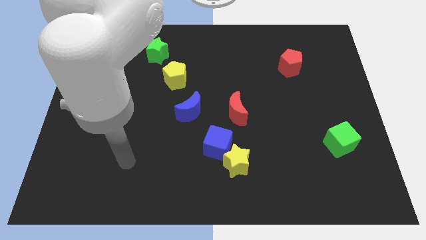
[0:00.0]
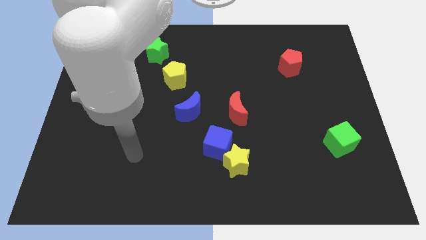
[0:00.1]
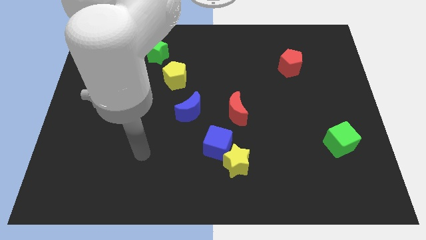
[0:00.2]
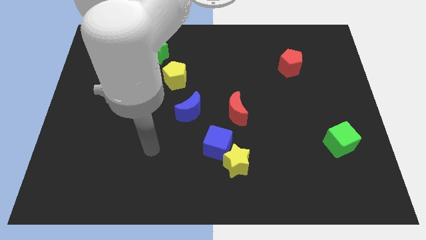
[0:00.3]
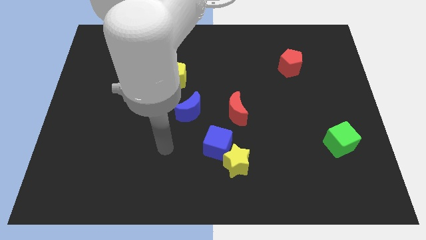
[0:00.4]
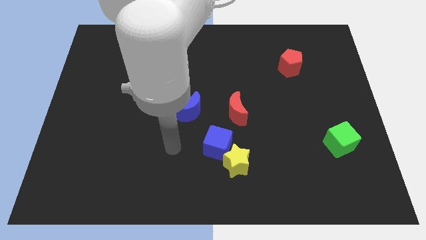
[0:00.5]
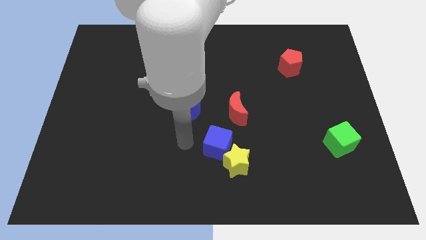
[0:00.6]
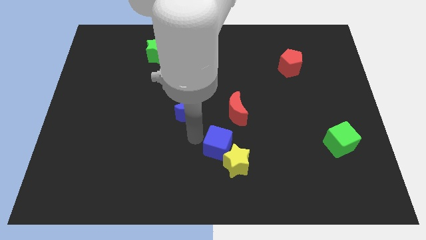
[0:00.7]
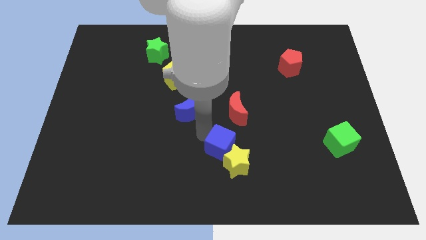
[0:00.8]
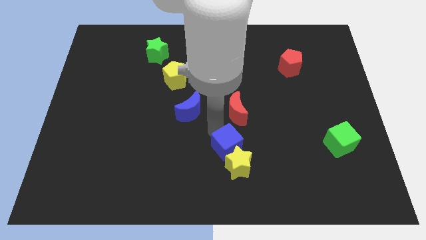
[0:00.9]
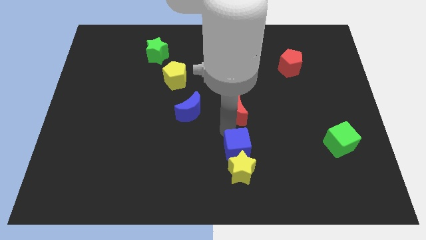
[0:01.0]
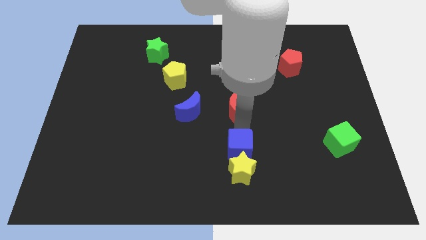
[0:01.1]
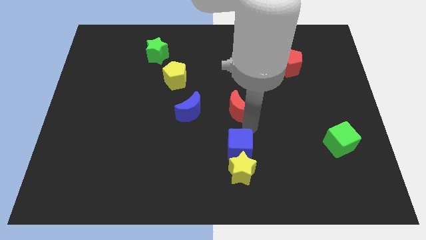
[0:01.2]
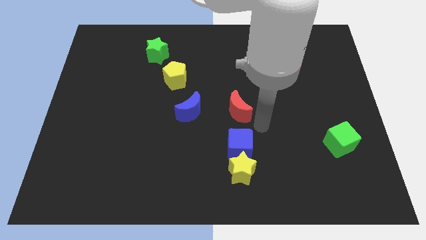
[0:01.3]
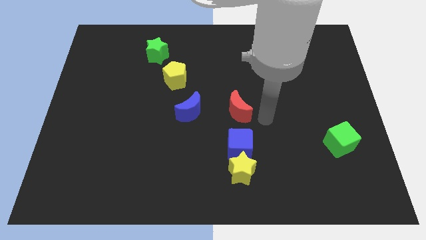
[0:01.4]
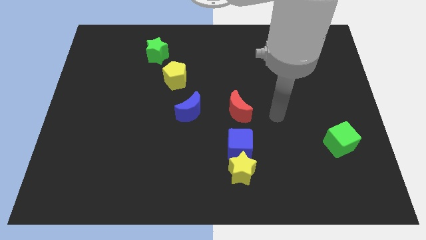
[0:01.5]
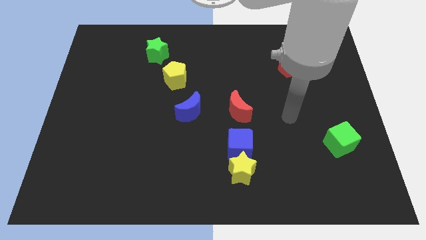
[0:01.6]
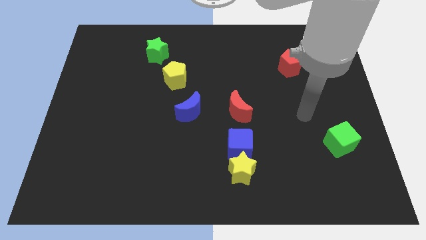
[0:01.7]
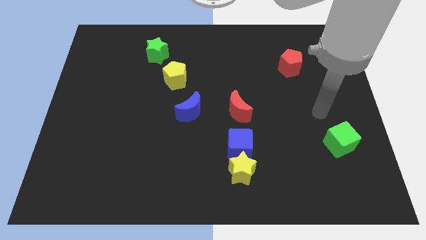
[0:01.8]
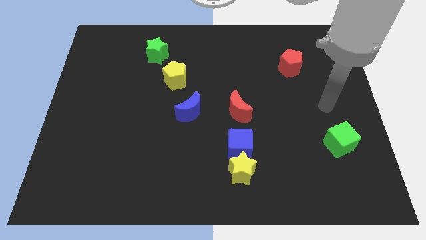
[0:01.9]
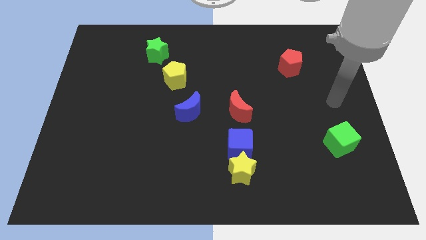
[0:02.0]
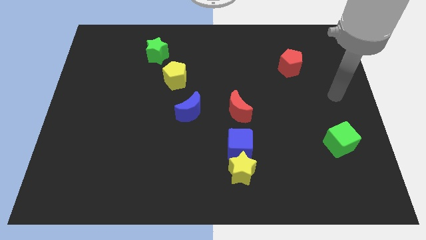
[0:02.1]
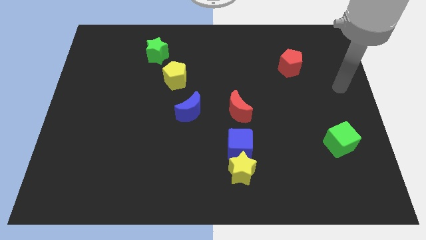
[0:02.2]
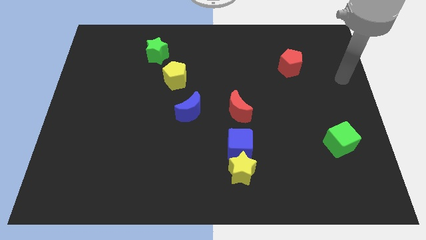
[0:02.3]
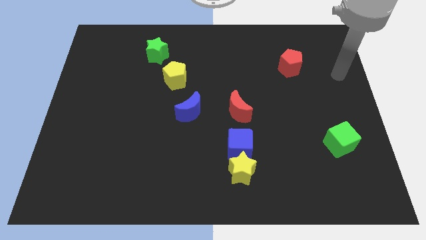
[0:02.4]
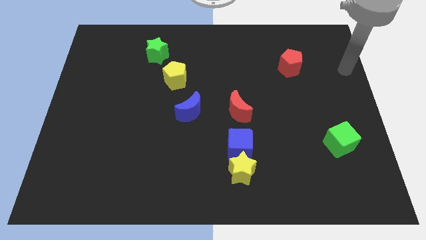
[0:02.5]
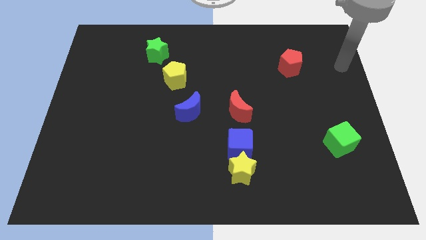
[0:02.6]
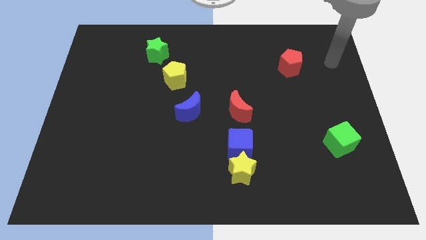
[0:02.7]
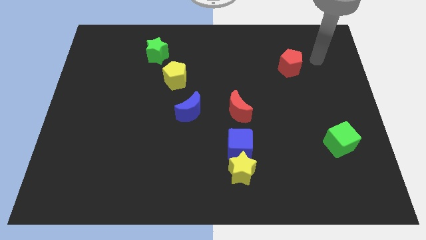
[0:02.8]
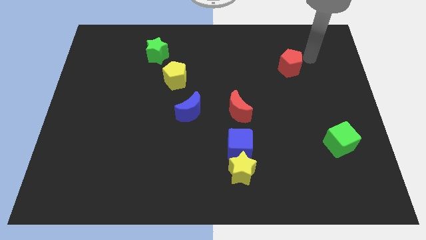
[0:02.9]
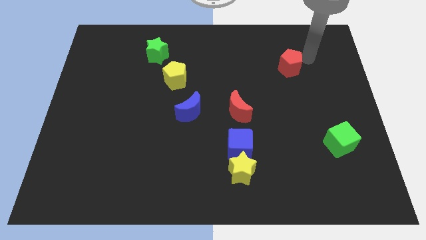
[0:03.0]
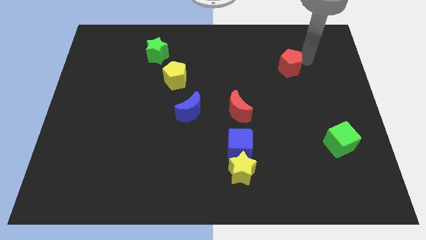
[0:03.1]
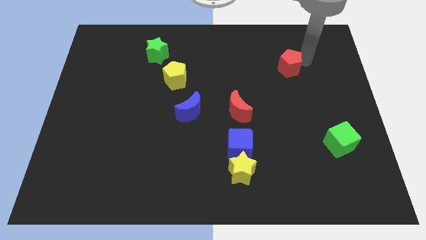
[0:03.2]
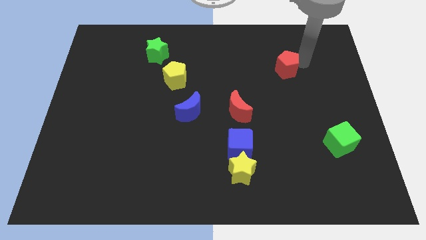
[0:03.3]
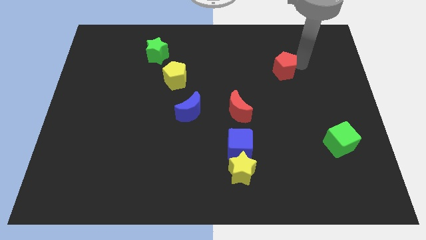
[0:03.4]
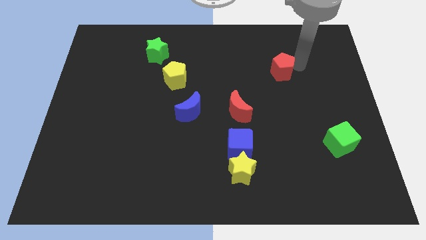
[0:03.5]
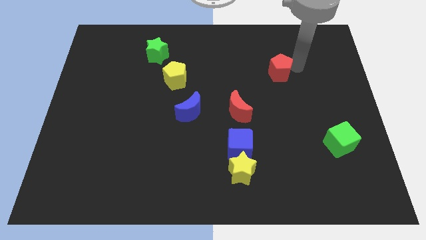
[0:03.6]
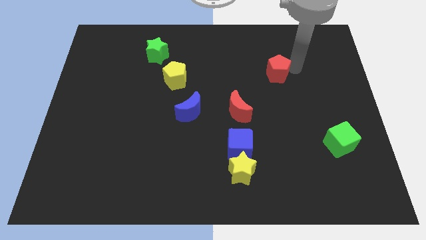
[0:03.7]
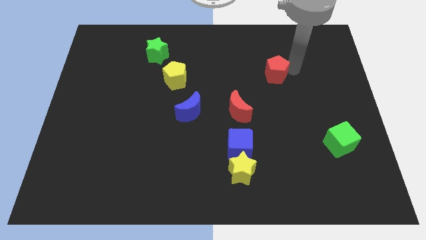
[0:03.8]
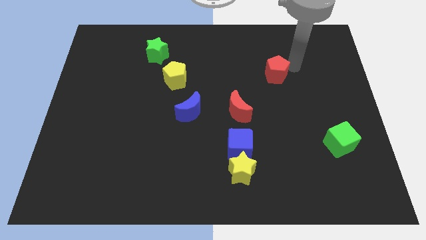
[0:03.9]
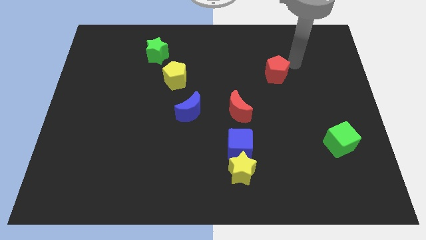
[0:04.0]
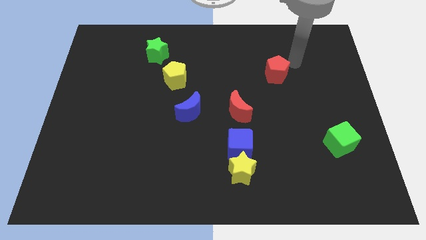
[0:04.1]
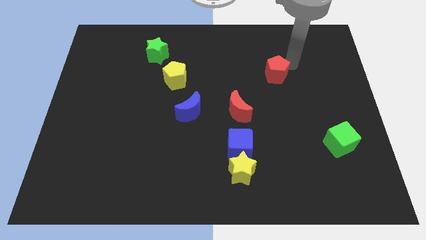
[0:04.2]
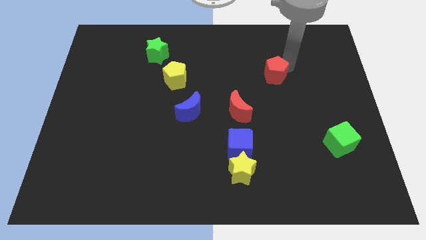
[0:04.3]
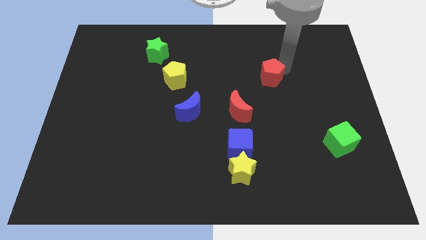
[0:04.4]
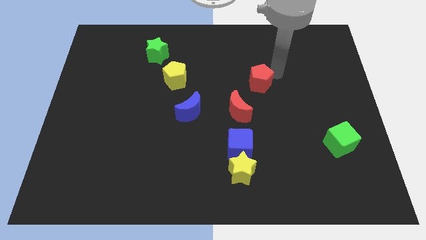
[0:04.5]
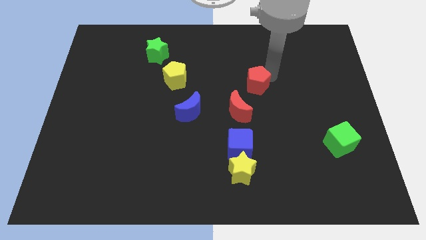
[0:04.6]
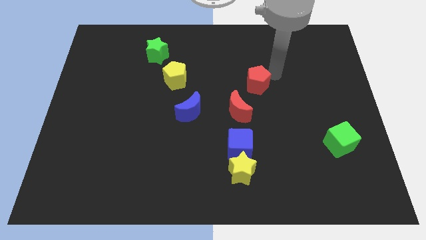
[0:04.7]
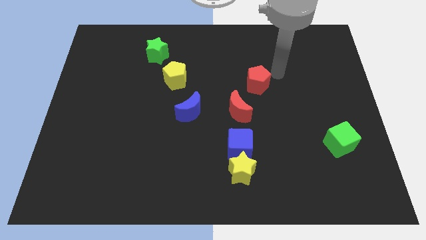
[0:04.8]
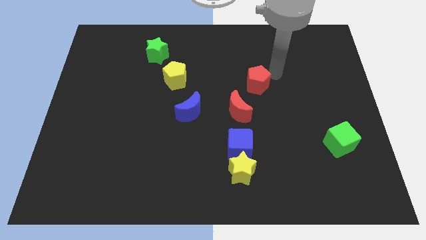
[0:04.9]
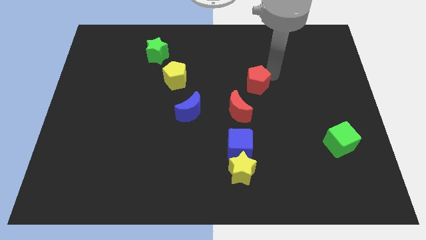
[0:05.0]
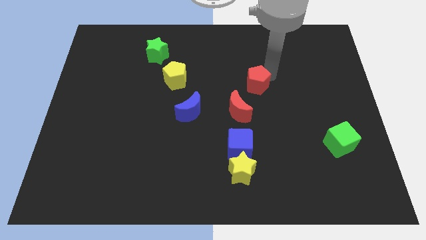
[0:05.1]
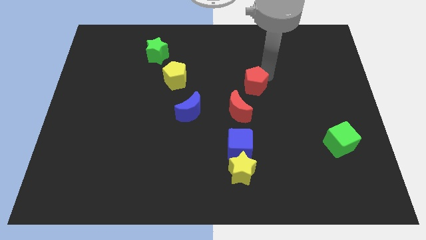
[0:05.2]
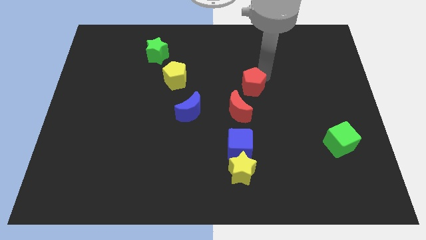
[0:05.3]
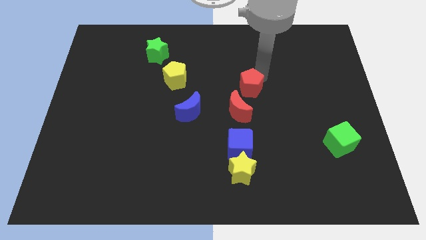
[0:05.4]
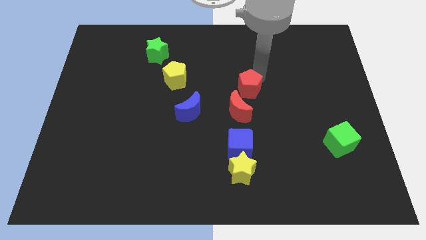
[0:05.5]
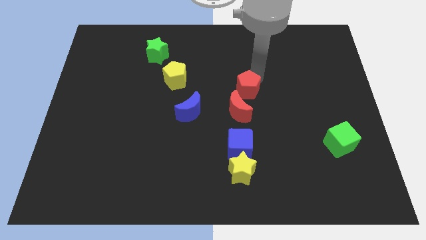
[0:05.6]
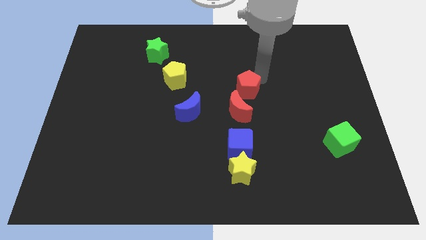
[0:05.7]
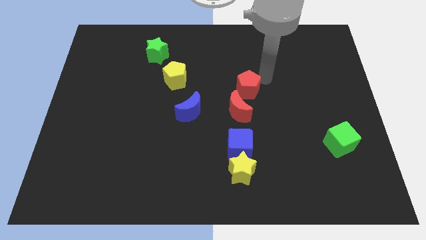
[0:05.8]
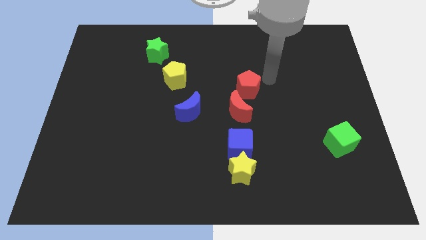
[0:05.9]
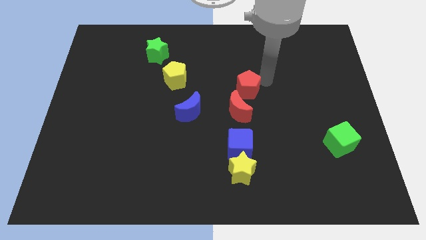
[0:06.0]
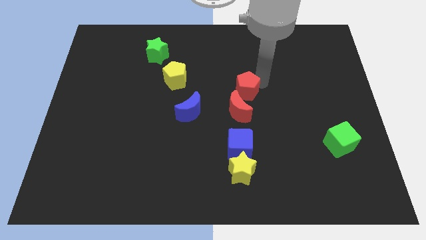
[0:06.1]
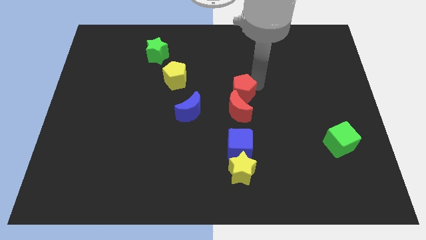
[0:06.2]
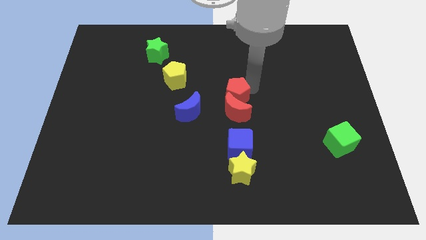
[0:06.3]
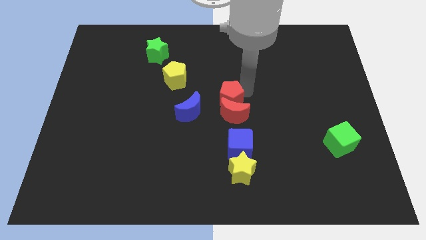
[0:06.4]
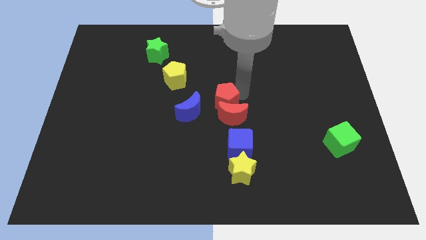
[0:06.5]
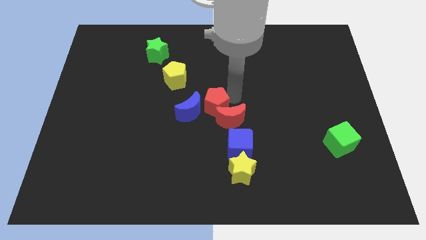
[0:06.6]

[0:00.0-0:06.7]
move the red pentagon close to the blue moon
